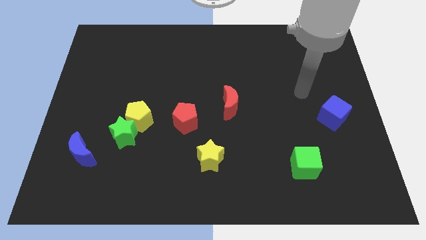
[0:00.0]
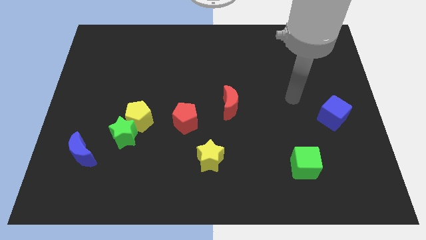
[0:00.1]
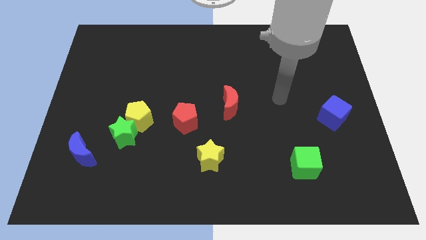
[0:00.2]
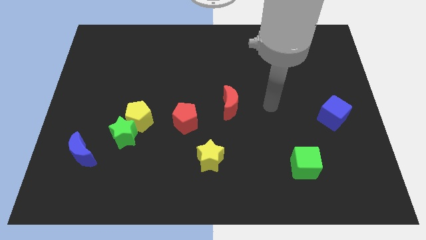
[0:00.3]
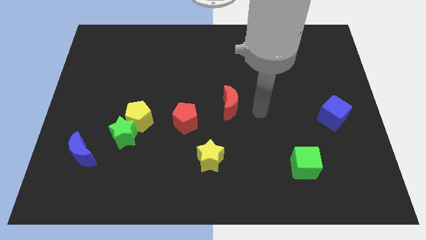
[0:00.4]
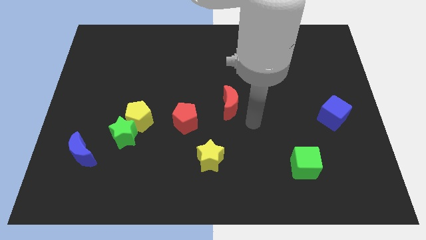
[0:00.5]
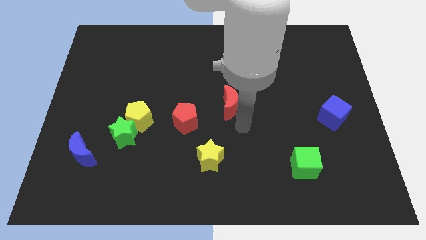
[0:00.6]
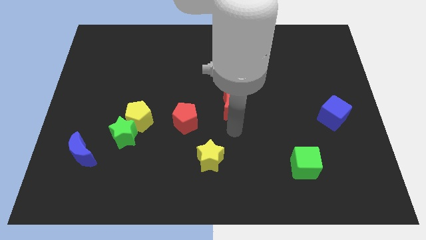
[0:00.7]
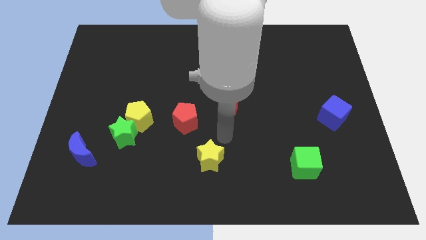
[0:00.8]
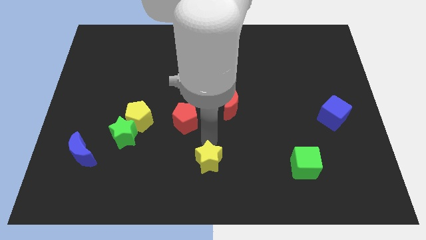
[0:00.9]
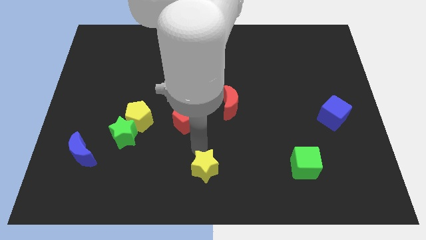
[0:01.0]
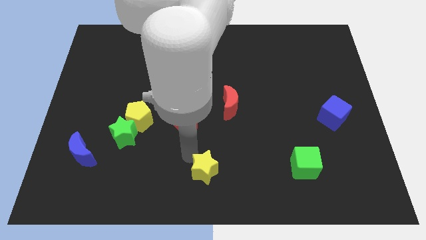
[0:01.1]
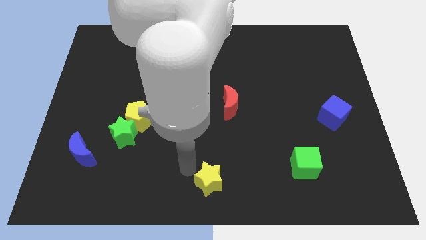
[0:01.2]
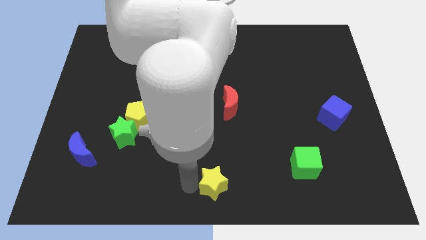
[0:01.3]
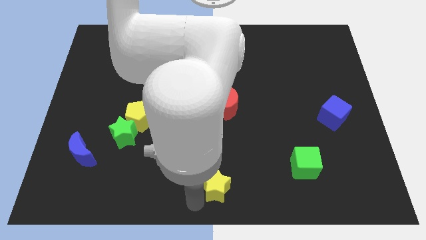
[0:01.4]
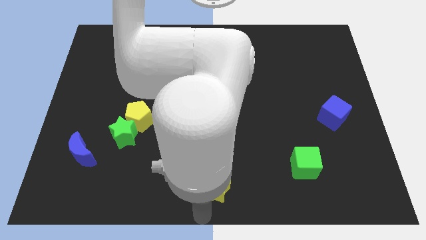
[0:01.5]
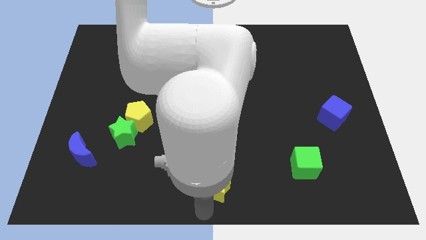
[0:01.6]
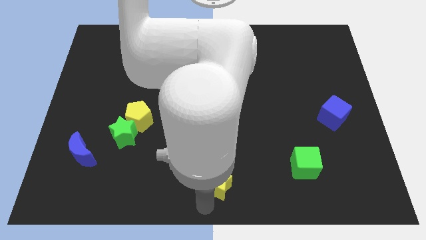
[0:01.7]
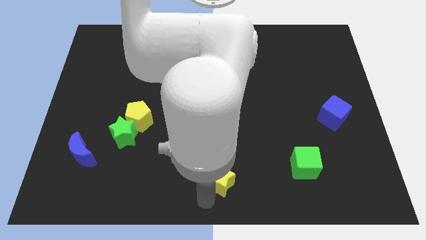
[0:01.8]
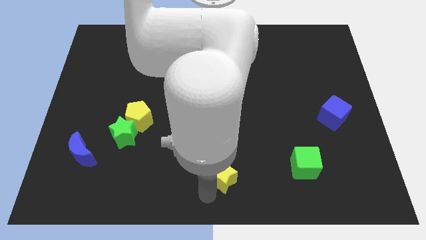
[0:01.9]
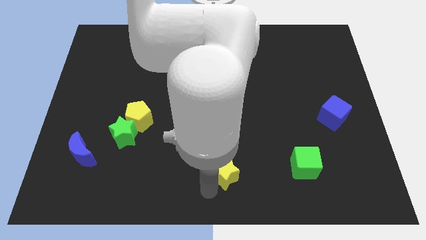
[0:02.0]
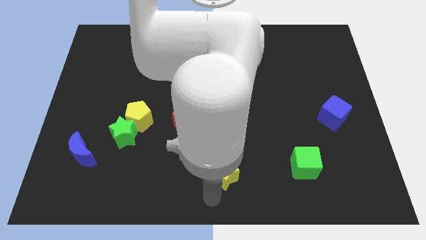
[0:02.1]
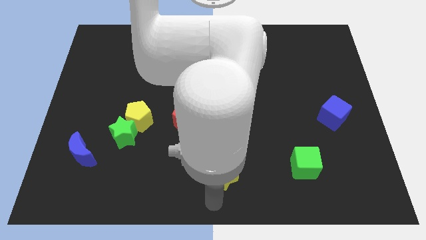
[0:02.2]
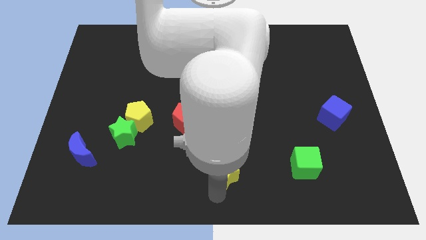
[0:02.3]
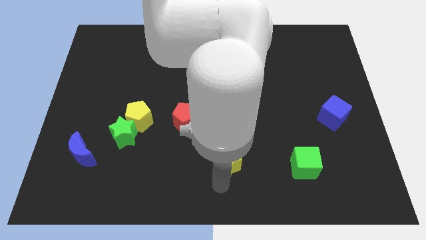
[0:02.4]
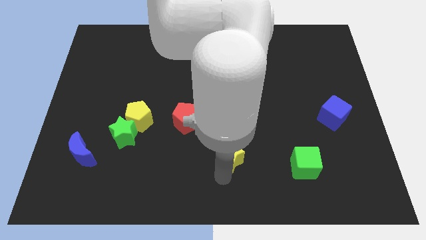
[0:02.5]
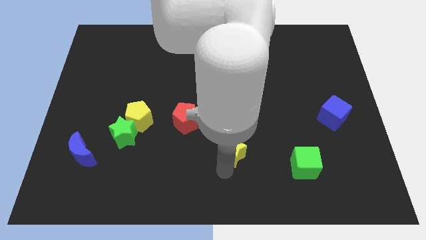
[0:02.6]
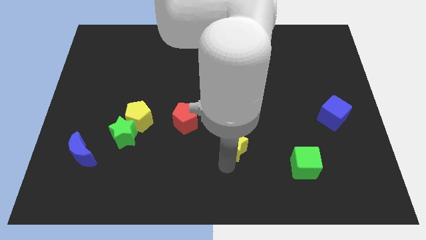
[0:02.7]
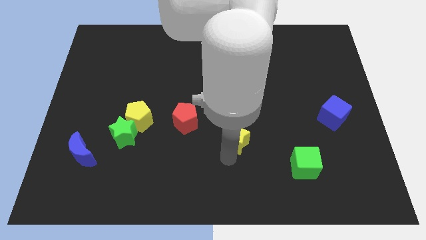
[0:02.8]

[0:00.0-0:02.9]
slightly slide the yellow star upwards and then to the right

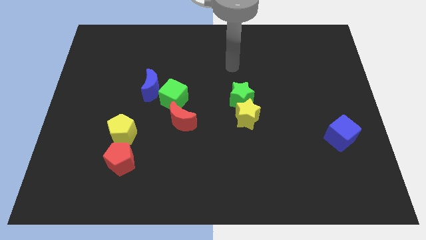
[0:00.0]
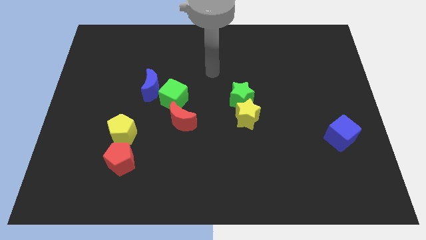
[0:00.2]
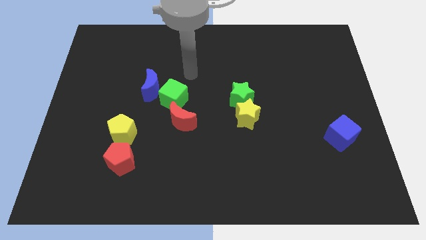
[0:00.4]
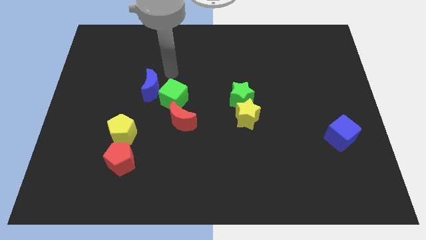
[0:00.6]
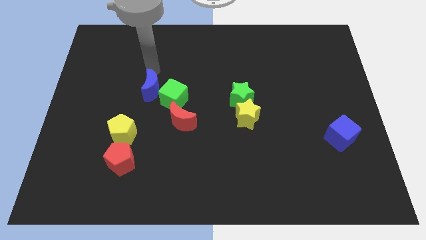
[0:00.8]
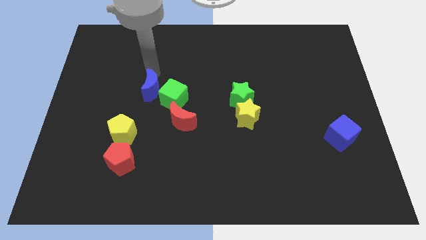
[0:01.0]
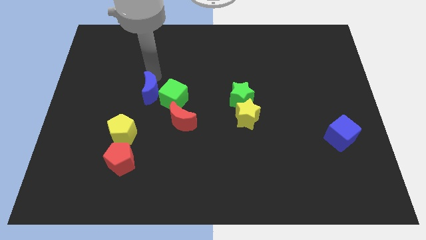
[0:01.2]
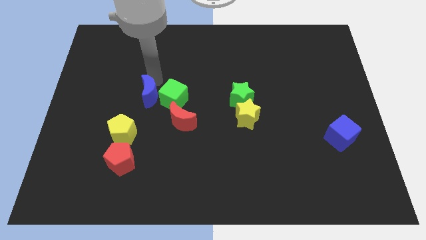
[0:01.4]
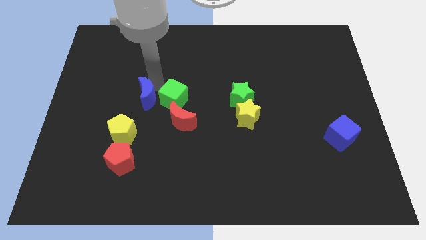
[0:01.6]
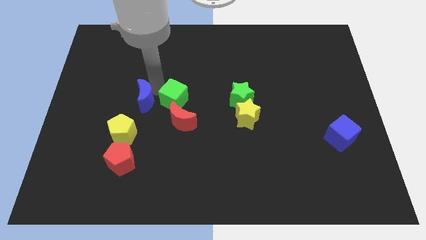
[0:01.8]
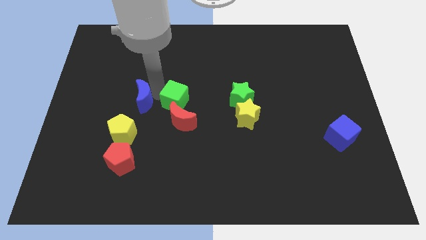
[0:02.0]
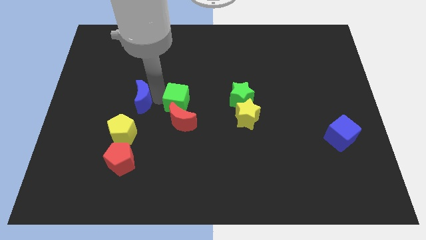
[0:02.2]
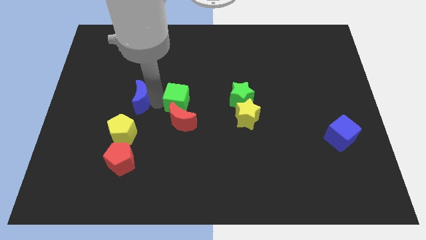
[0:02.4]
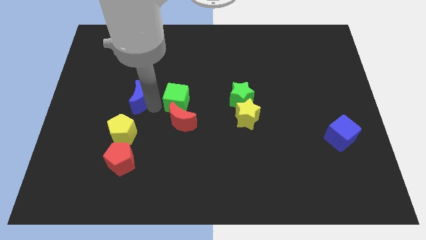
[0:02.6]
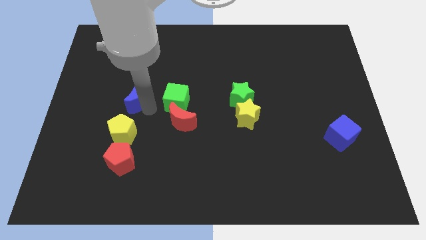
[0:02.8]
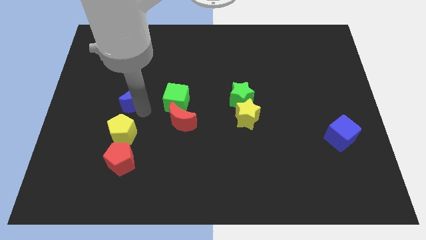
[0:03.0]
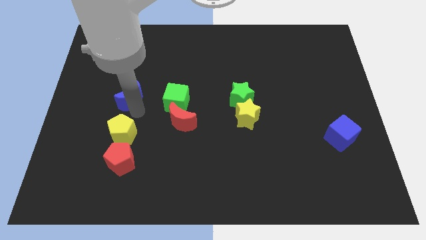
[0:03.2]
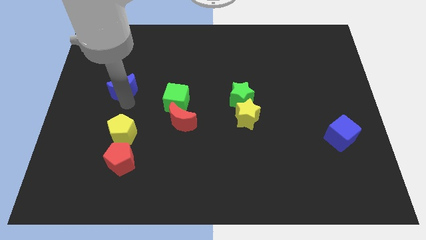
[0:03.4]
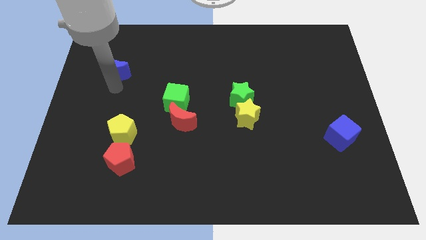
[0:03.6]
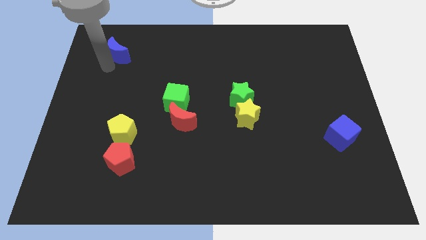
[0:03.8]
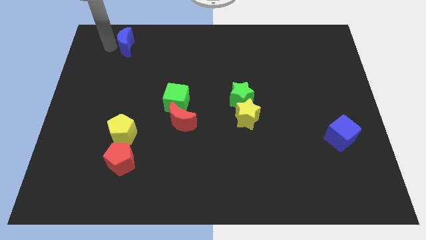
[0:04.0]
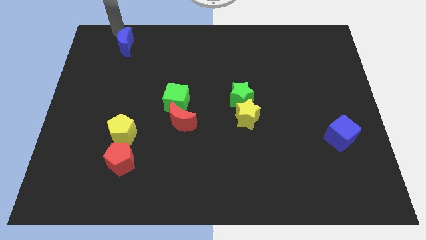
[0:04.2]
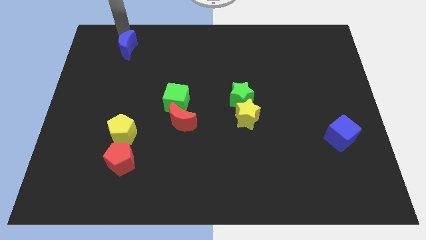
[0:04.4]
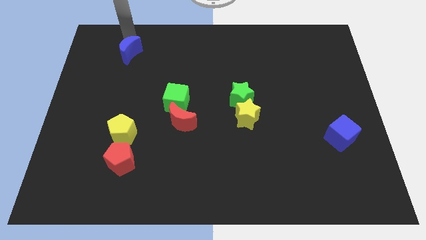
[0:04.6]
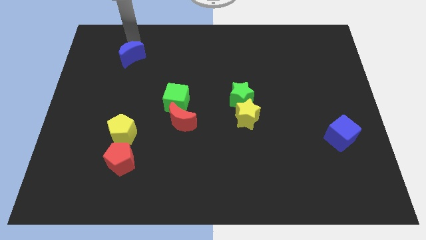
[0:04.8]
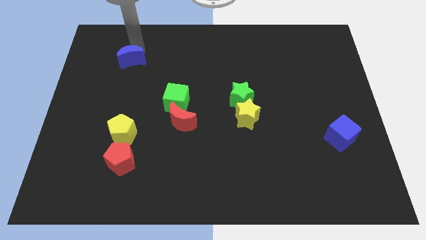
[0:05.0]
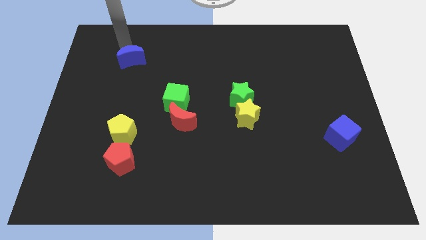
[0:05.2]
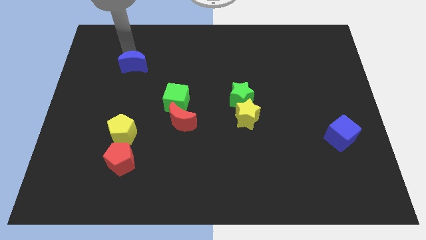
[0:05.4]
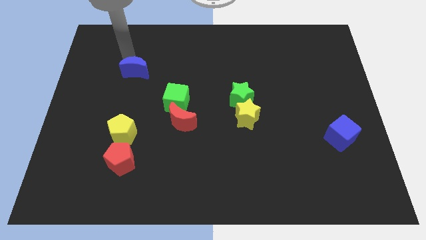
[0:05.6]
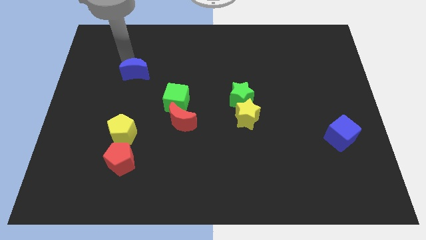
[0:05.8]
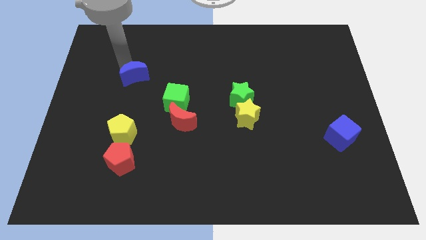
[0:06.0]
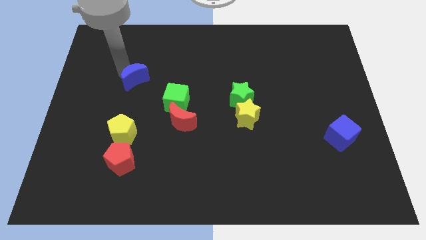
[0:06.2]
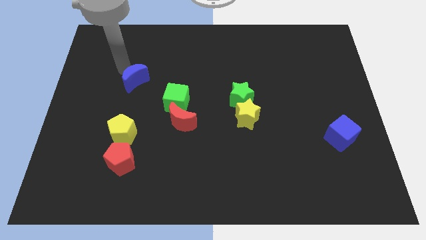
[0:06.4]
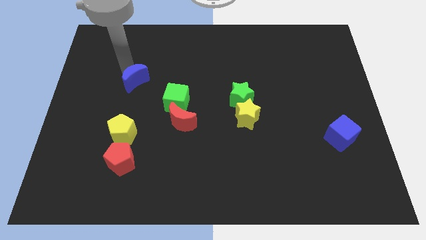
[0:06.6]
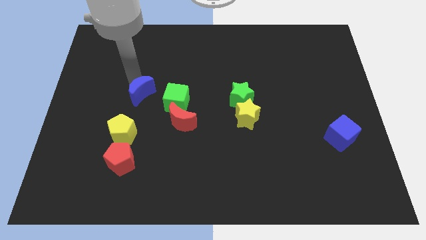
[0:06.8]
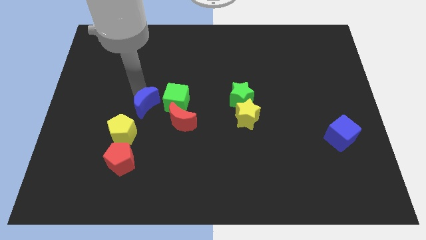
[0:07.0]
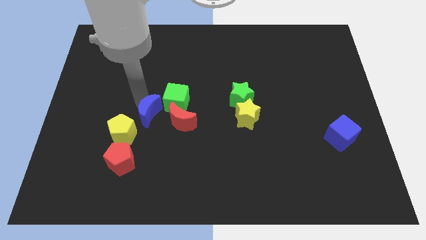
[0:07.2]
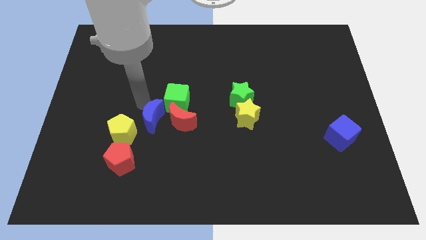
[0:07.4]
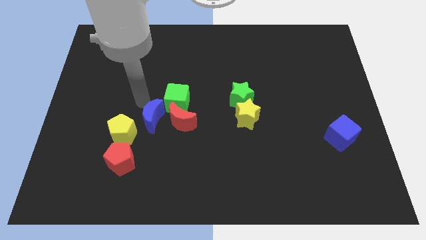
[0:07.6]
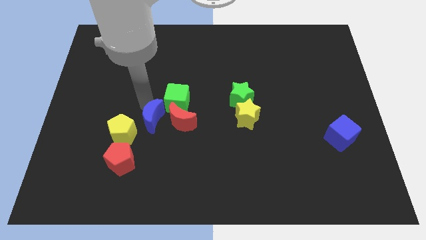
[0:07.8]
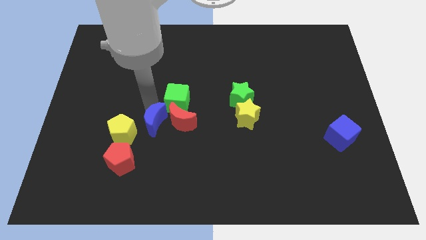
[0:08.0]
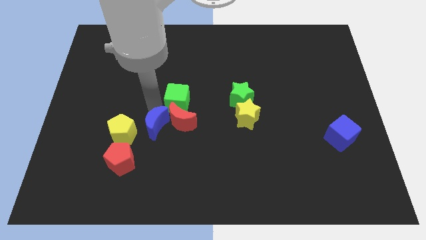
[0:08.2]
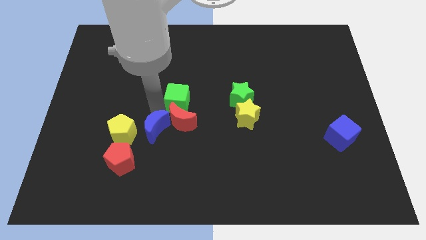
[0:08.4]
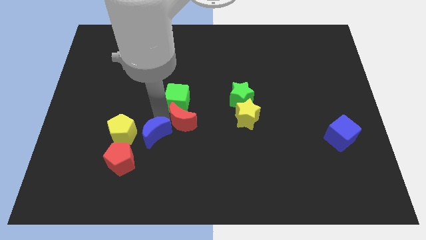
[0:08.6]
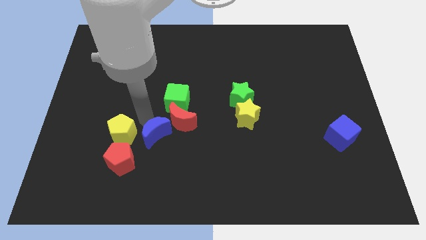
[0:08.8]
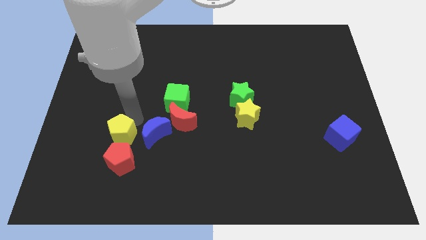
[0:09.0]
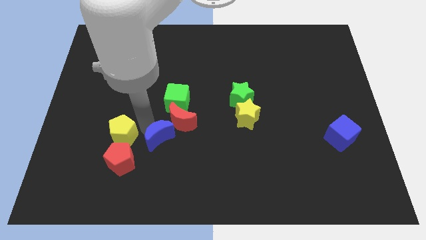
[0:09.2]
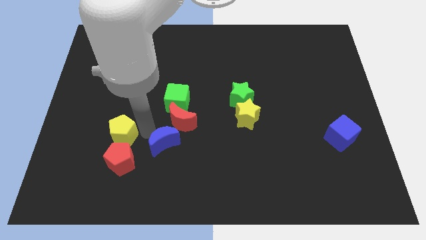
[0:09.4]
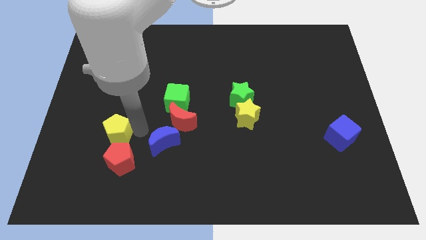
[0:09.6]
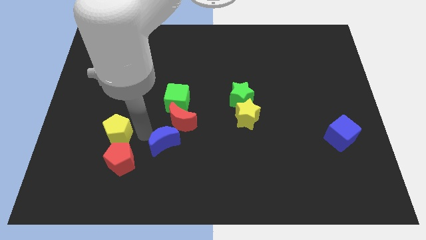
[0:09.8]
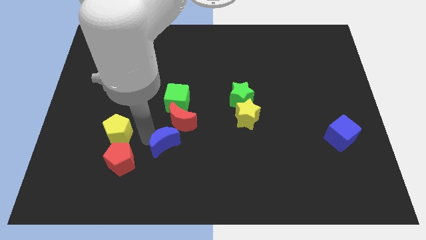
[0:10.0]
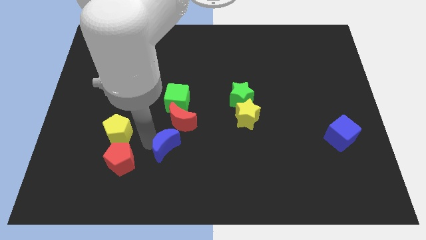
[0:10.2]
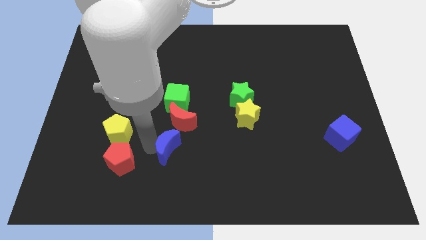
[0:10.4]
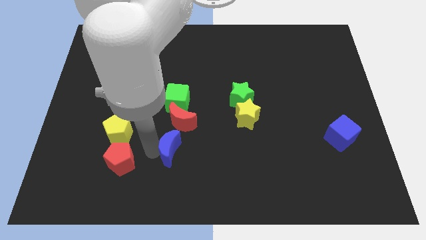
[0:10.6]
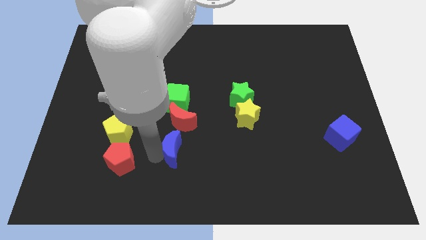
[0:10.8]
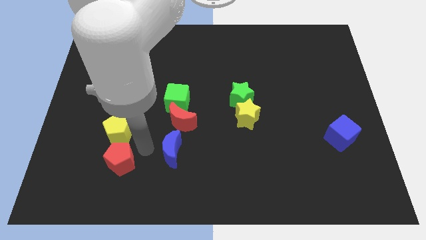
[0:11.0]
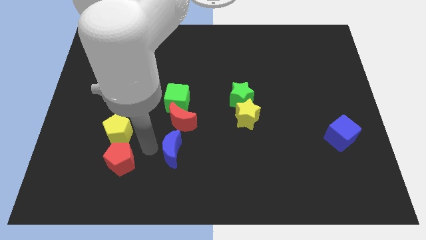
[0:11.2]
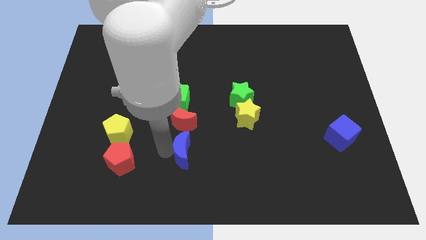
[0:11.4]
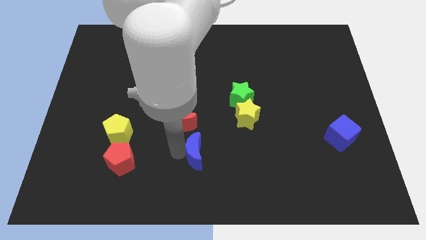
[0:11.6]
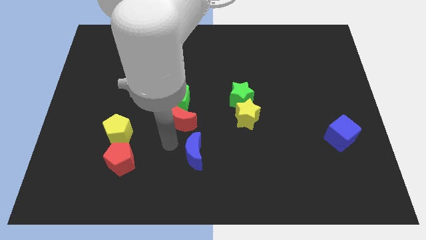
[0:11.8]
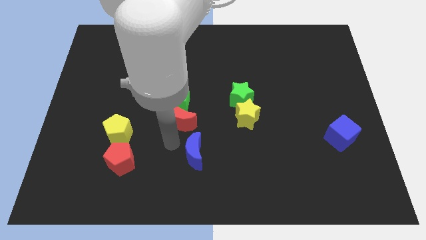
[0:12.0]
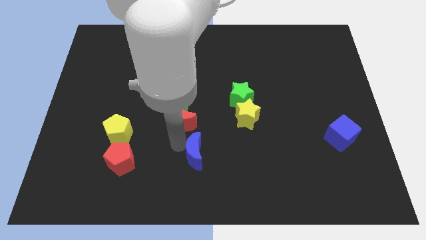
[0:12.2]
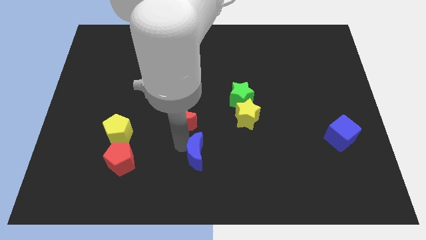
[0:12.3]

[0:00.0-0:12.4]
move the blue moon diagonally downwards and right
